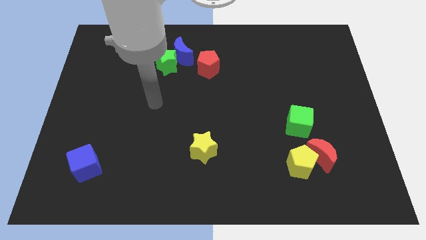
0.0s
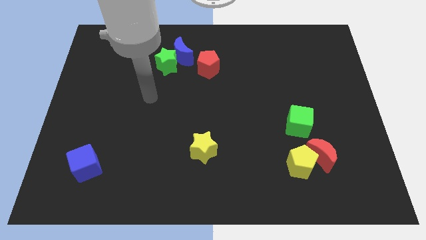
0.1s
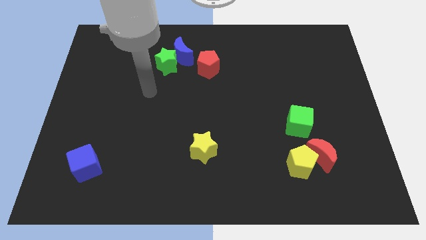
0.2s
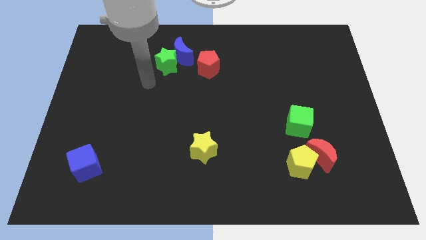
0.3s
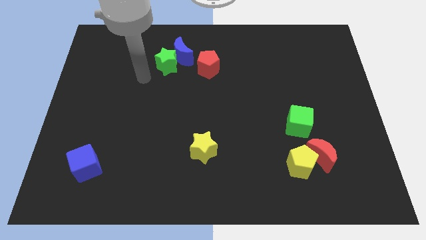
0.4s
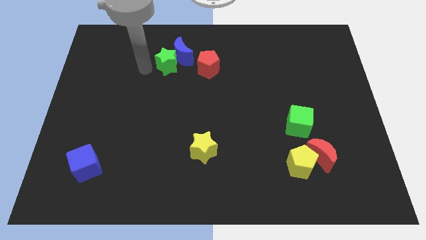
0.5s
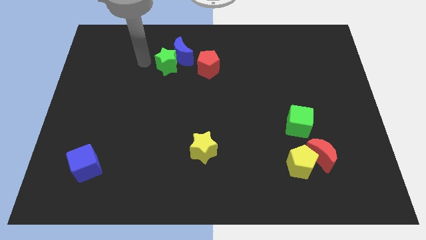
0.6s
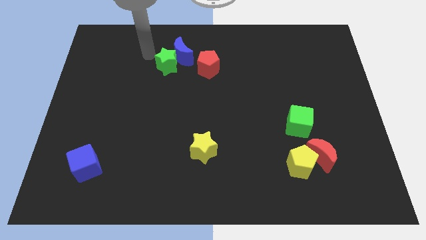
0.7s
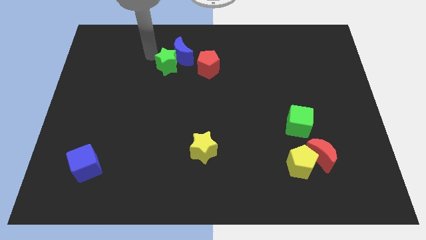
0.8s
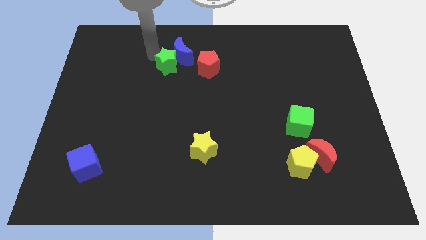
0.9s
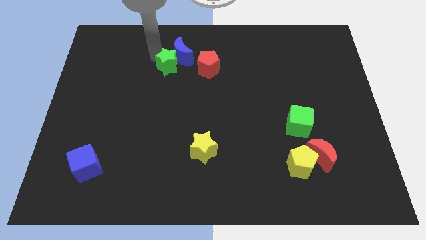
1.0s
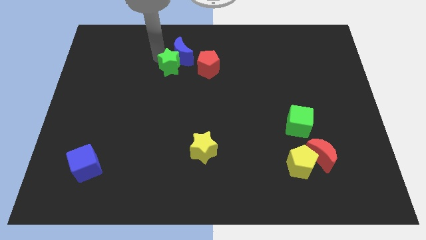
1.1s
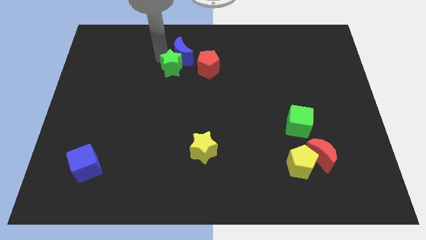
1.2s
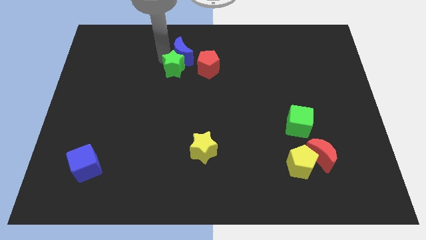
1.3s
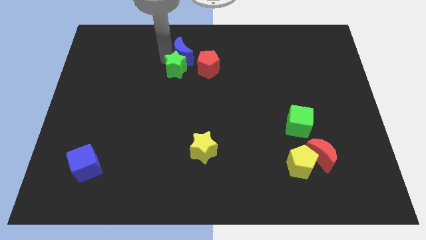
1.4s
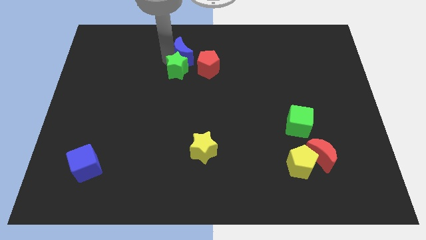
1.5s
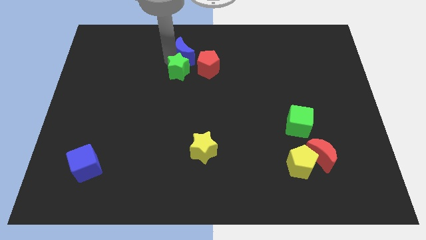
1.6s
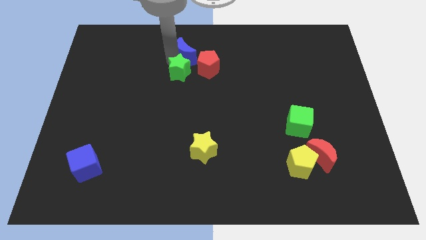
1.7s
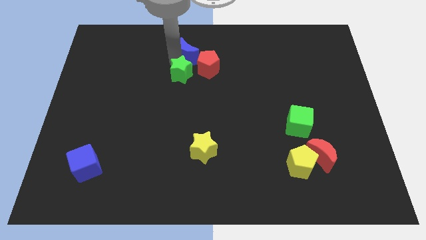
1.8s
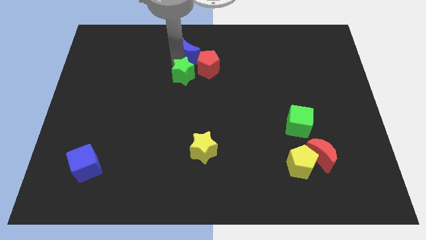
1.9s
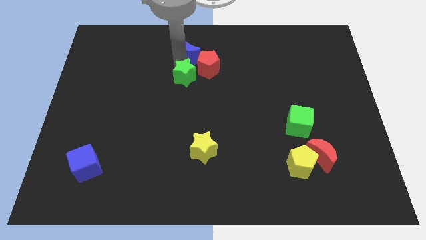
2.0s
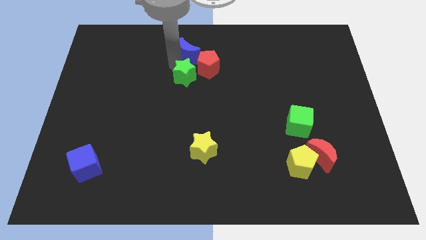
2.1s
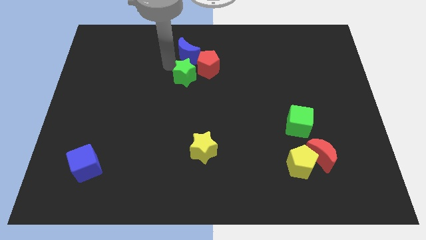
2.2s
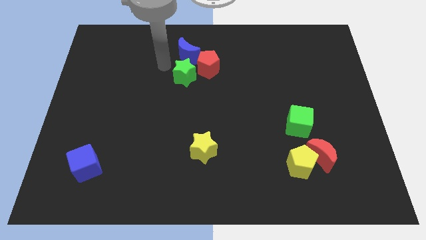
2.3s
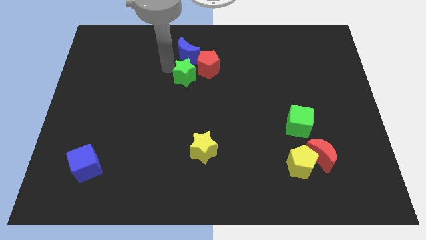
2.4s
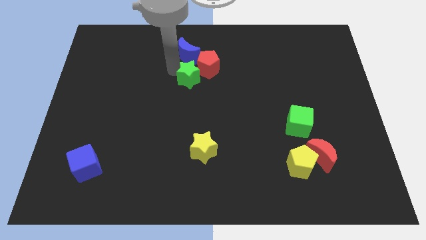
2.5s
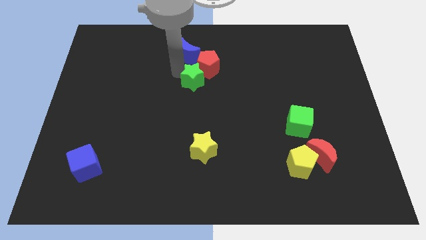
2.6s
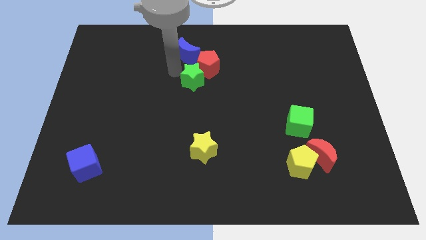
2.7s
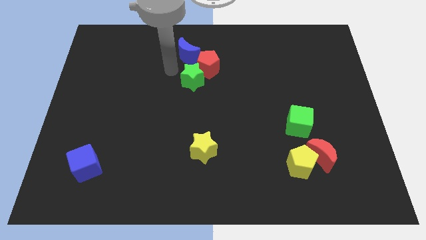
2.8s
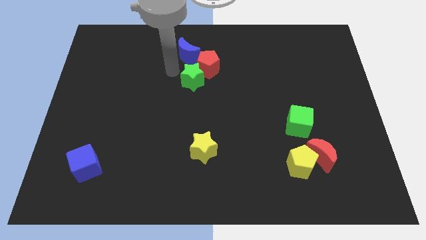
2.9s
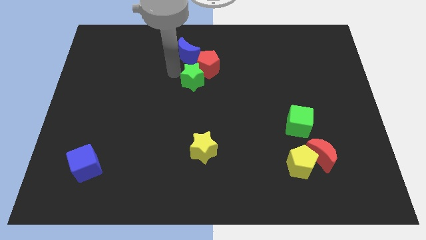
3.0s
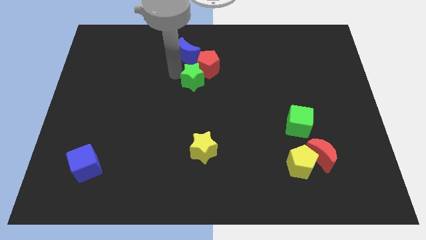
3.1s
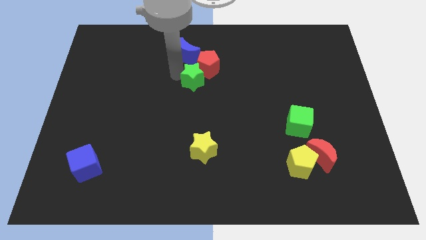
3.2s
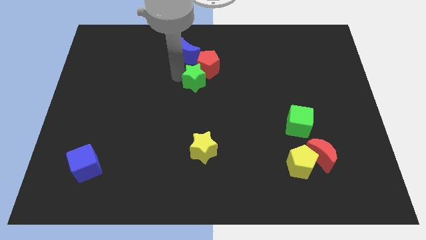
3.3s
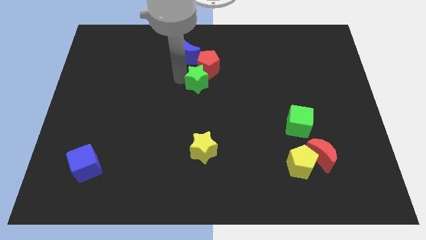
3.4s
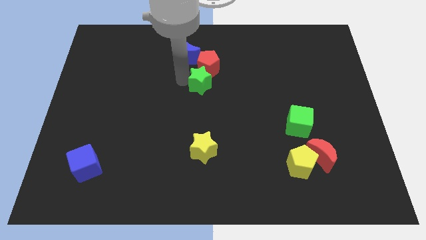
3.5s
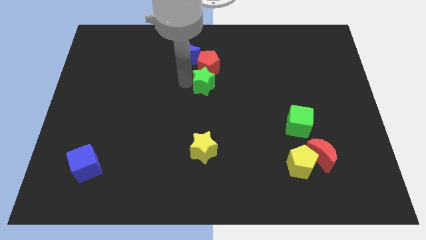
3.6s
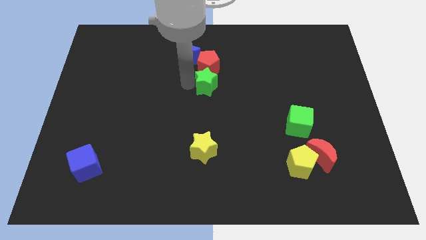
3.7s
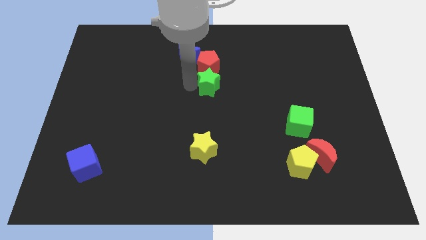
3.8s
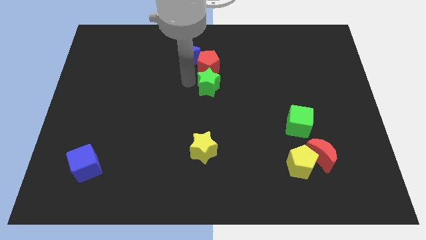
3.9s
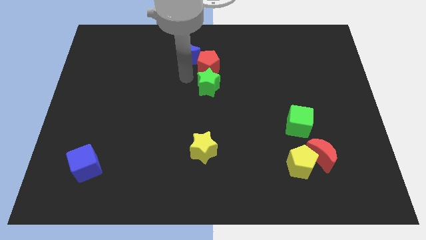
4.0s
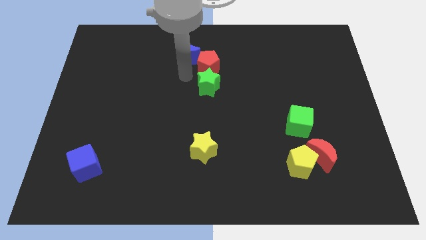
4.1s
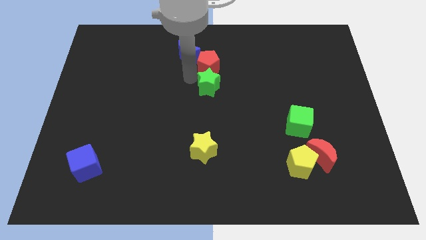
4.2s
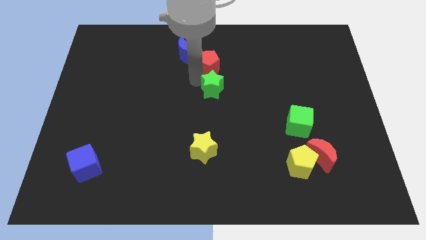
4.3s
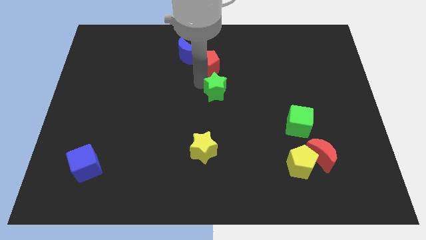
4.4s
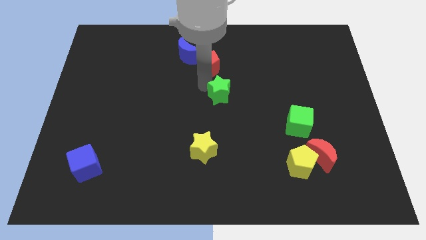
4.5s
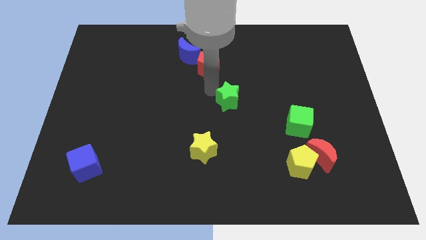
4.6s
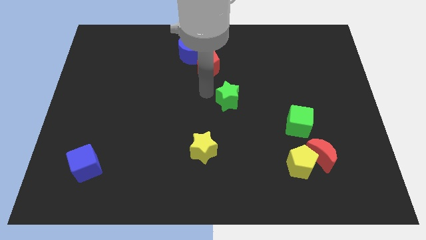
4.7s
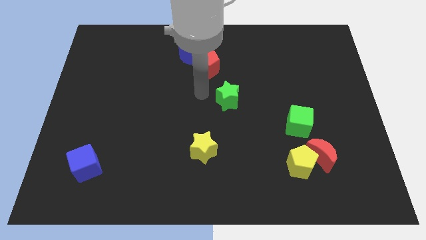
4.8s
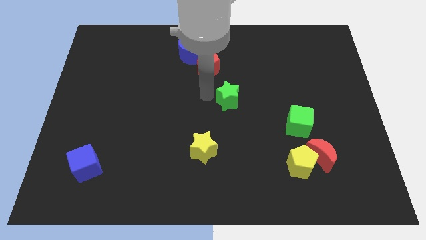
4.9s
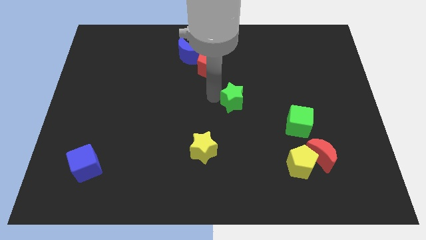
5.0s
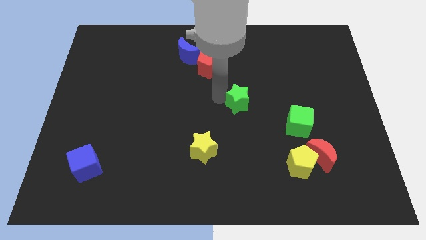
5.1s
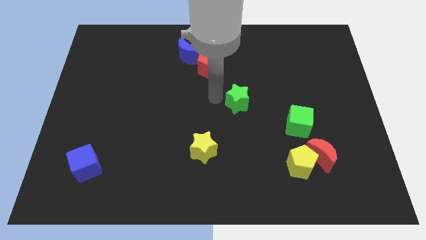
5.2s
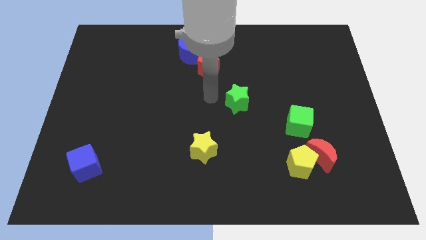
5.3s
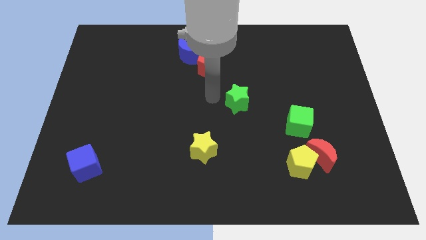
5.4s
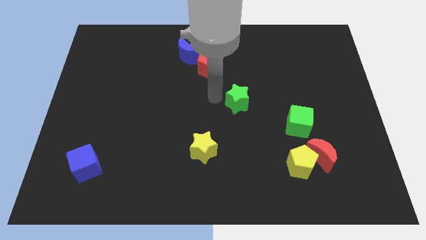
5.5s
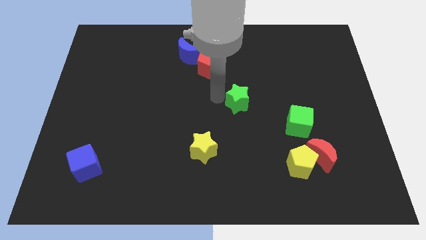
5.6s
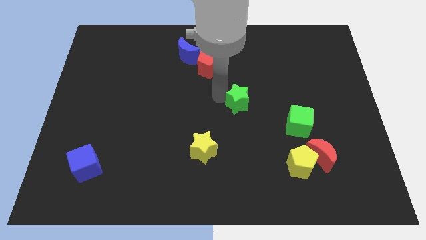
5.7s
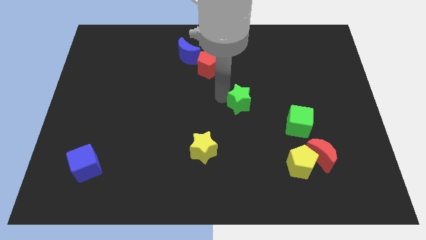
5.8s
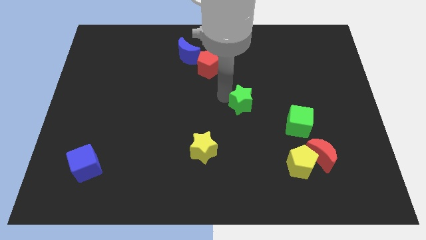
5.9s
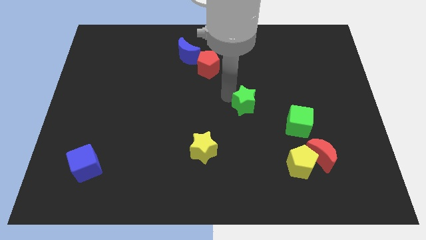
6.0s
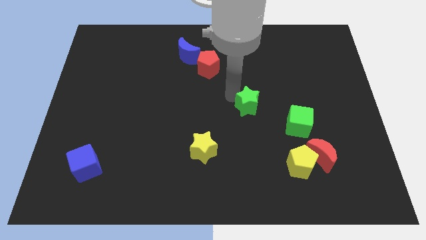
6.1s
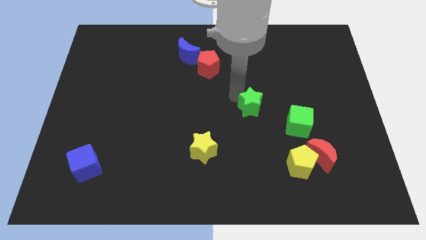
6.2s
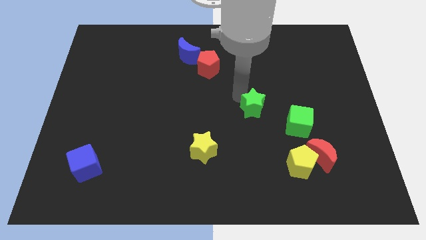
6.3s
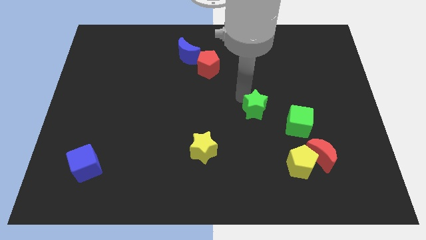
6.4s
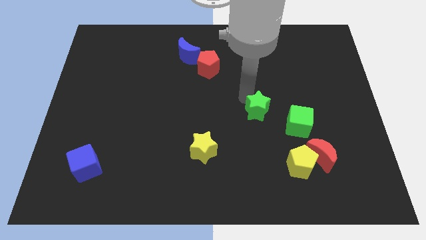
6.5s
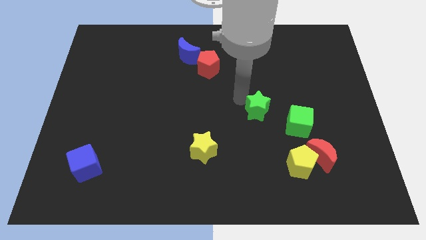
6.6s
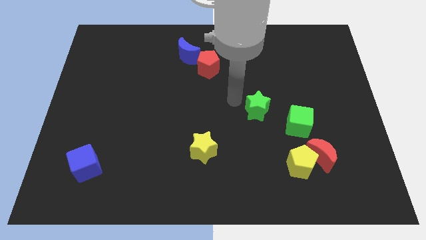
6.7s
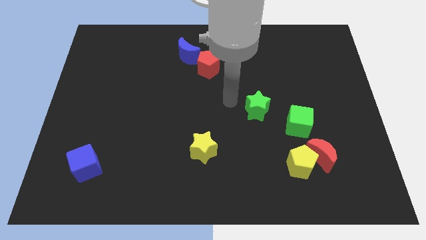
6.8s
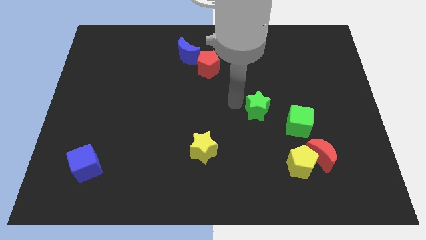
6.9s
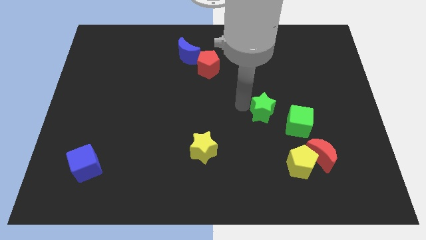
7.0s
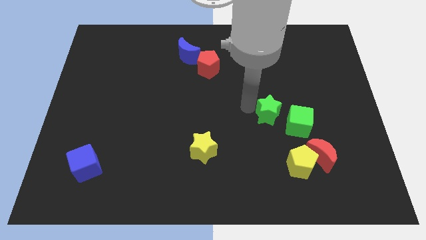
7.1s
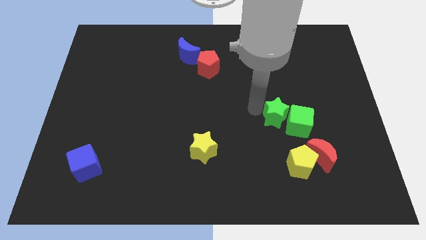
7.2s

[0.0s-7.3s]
put the green star towards the green cube
